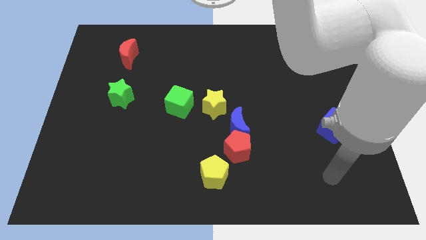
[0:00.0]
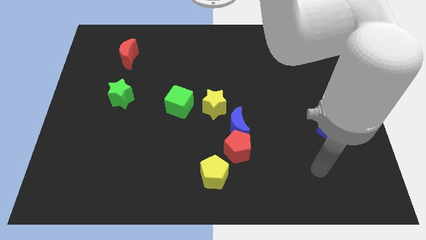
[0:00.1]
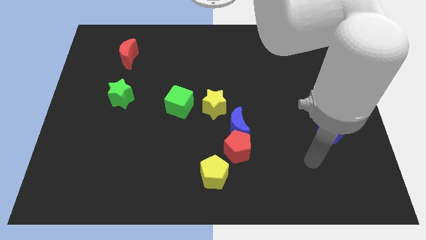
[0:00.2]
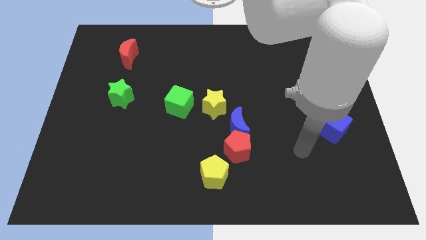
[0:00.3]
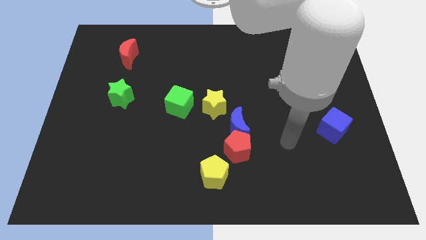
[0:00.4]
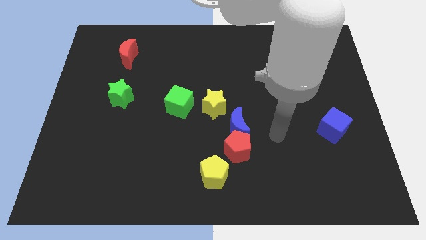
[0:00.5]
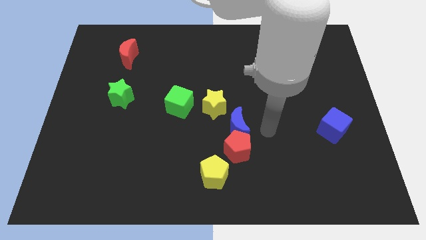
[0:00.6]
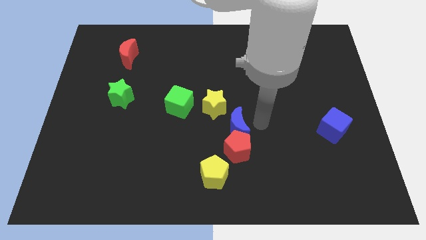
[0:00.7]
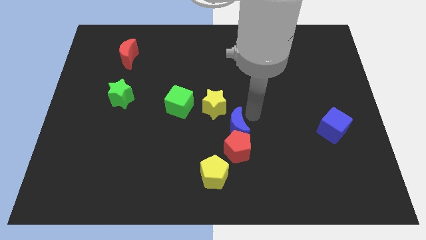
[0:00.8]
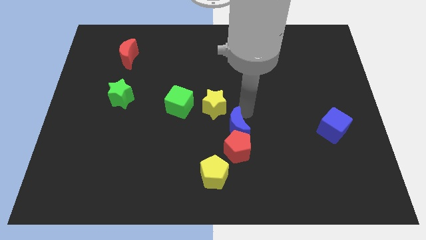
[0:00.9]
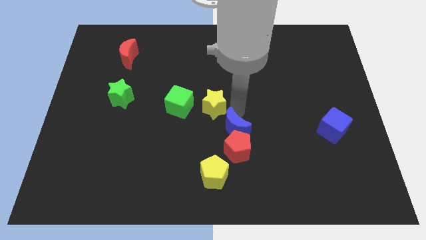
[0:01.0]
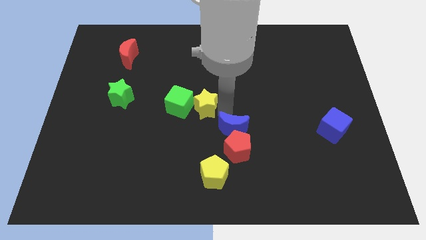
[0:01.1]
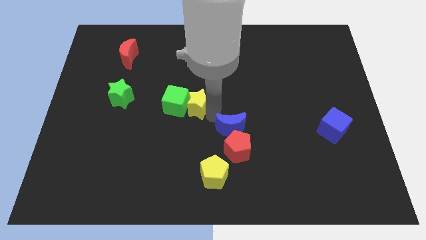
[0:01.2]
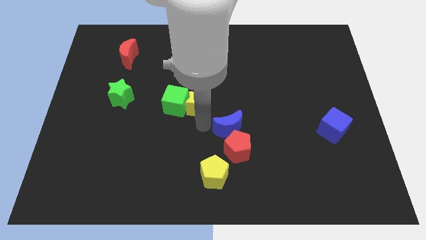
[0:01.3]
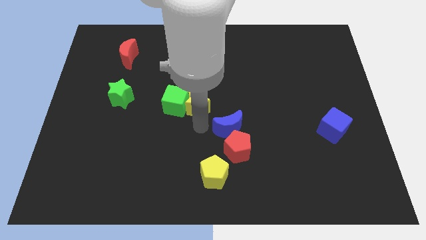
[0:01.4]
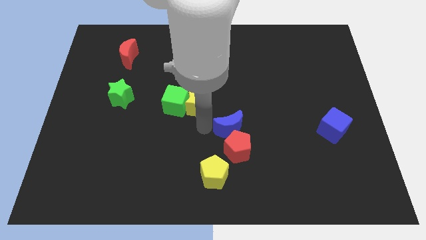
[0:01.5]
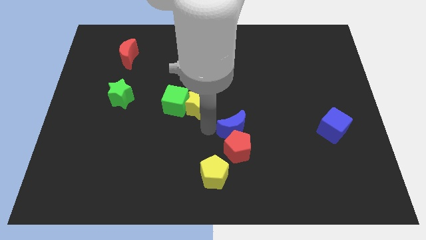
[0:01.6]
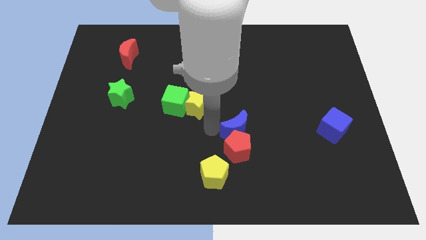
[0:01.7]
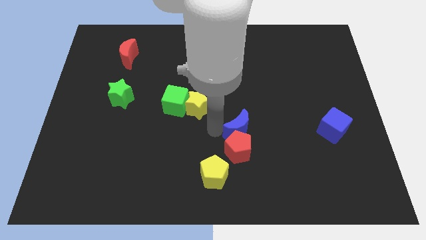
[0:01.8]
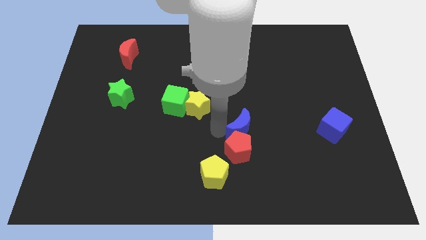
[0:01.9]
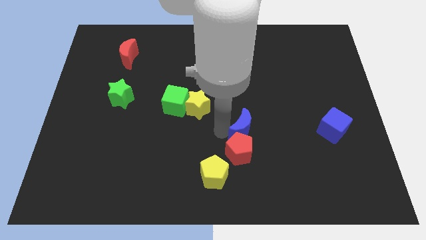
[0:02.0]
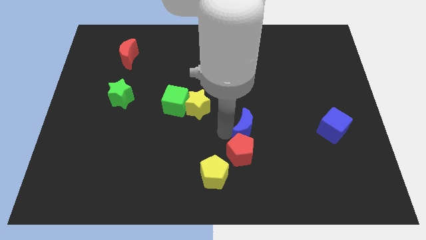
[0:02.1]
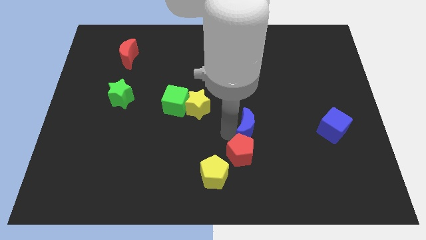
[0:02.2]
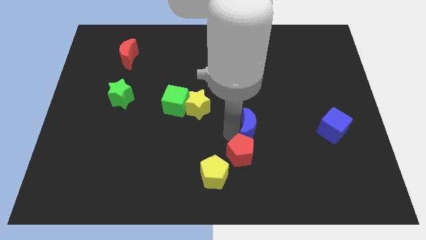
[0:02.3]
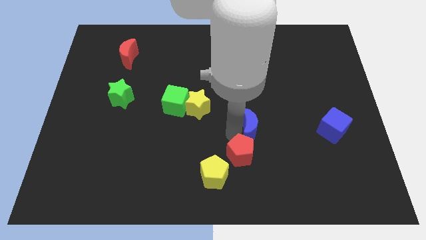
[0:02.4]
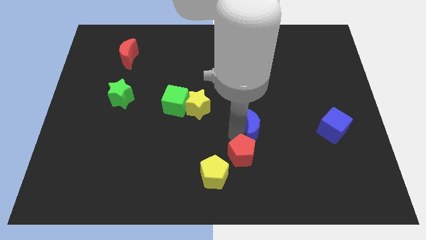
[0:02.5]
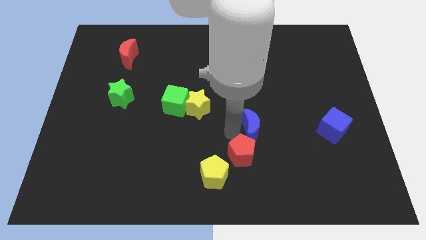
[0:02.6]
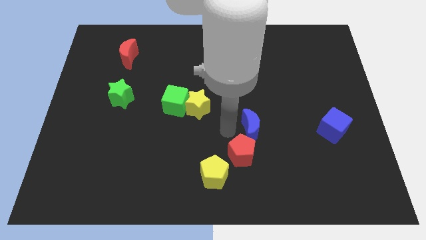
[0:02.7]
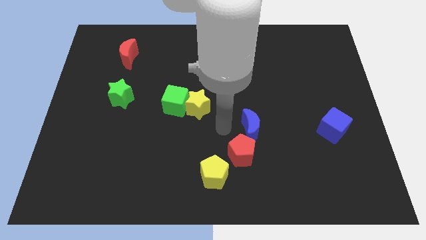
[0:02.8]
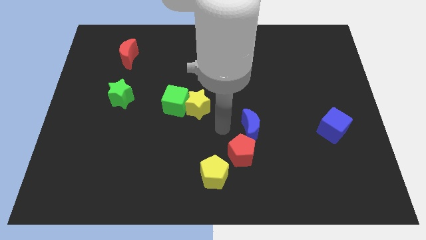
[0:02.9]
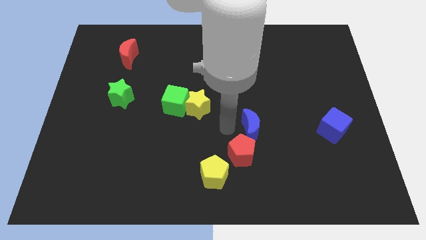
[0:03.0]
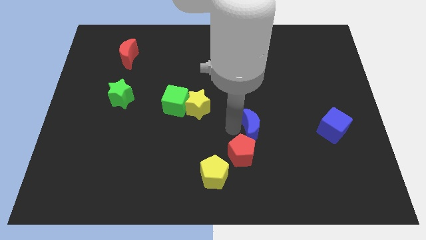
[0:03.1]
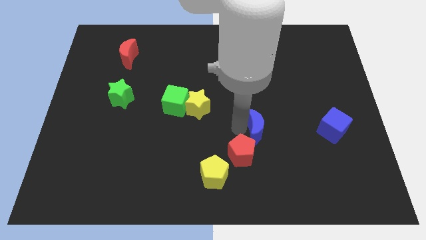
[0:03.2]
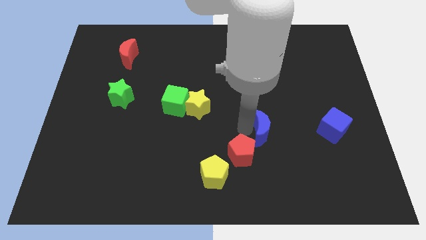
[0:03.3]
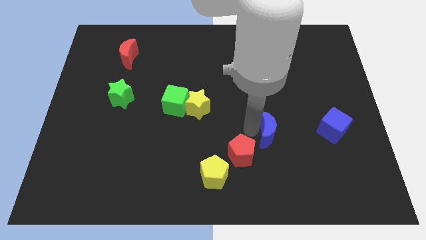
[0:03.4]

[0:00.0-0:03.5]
separate the blue moon from the red pentagon and yellow star

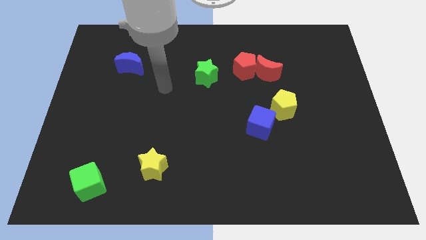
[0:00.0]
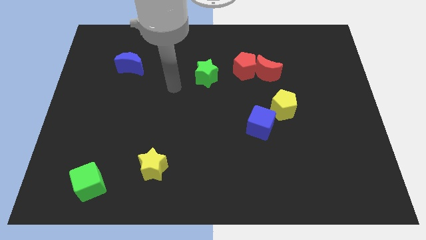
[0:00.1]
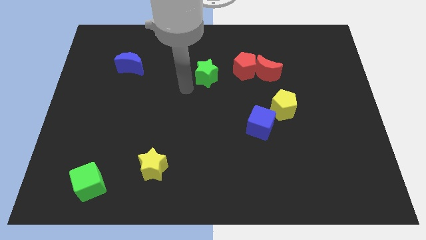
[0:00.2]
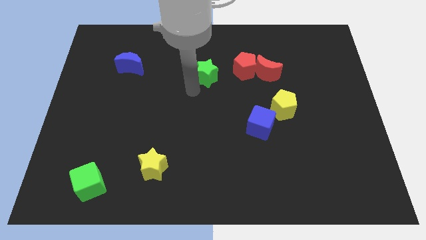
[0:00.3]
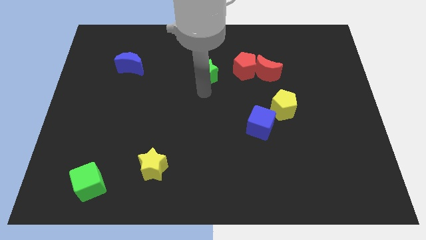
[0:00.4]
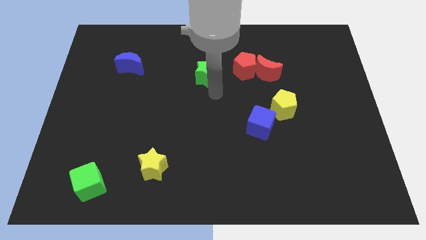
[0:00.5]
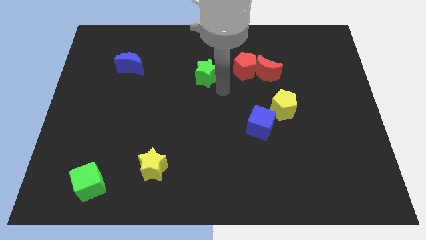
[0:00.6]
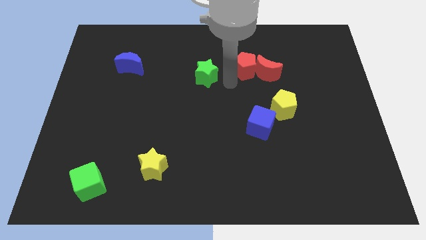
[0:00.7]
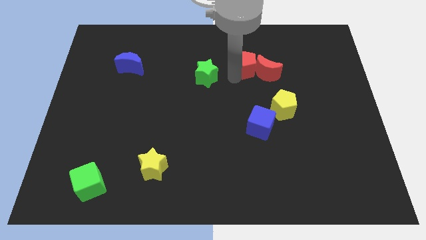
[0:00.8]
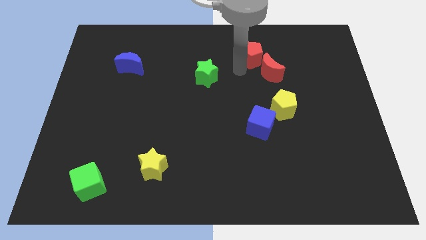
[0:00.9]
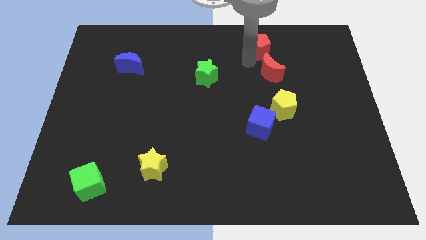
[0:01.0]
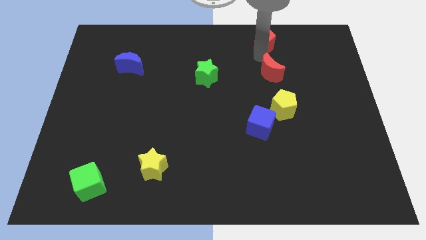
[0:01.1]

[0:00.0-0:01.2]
pull the red moon apart from the red pentagon

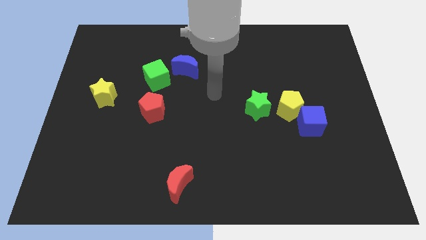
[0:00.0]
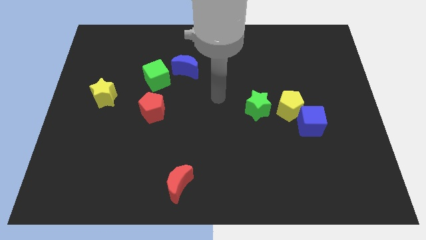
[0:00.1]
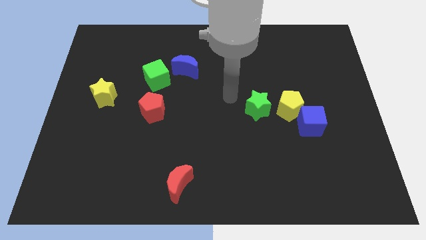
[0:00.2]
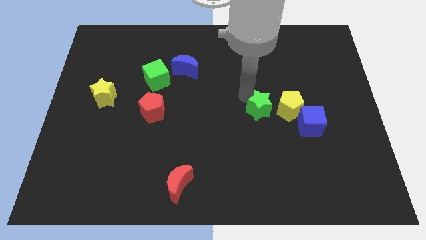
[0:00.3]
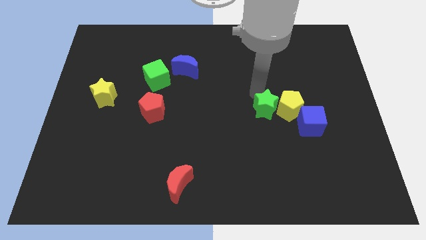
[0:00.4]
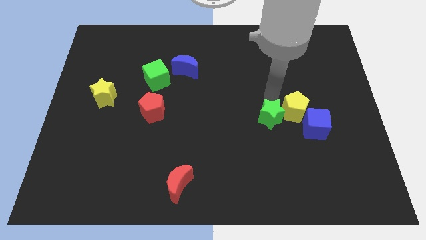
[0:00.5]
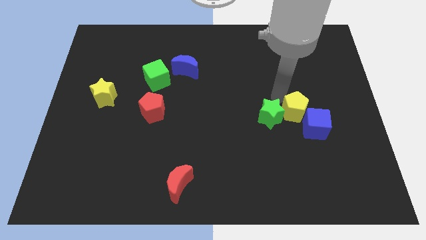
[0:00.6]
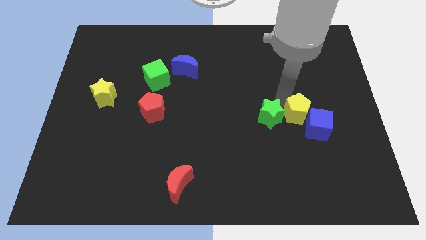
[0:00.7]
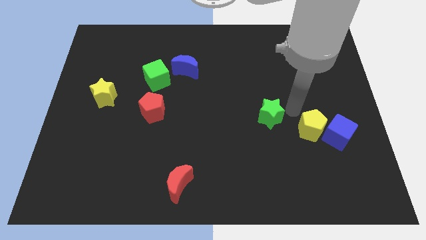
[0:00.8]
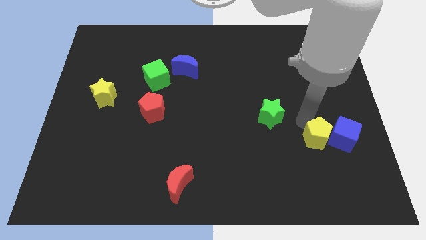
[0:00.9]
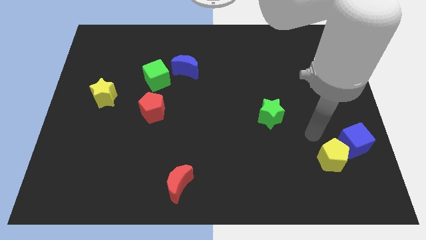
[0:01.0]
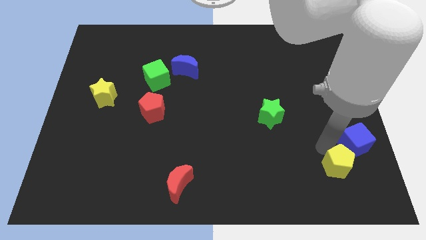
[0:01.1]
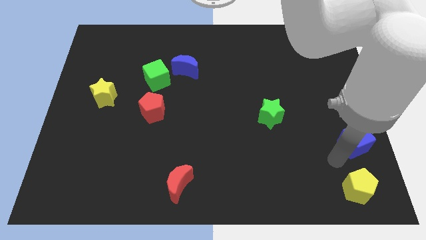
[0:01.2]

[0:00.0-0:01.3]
separate the blue cube from the yellow pentagon

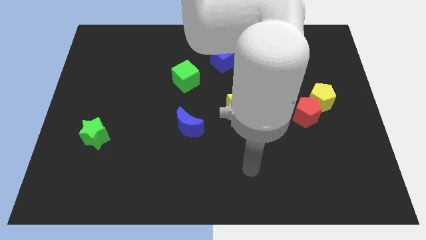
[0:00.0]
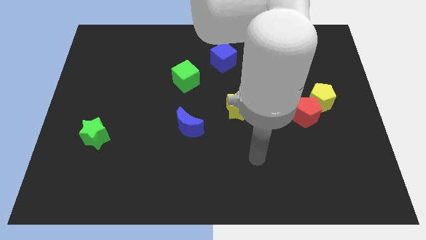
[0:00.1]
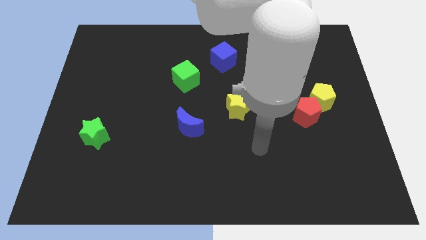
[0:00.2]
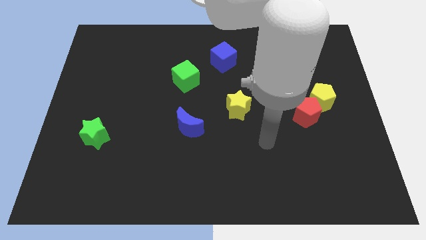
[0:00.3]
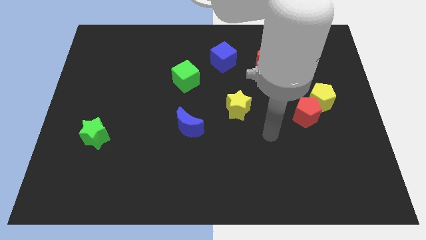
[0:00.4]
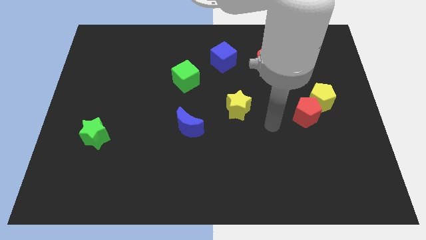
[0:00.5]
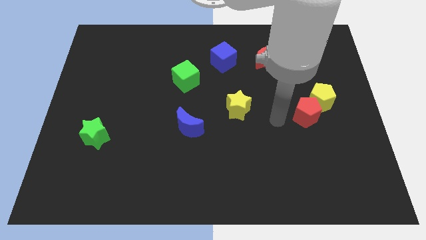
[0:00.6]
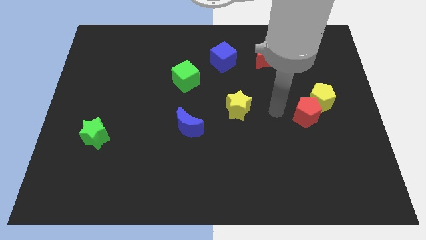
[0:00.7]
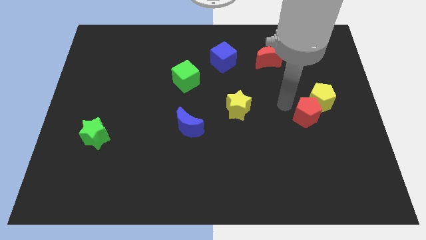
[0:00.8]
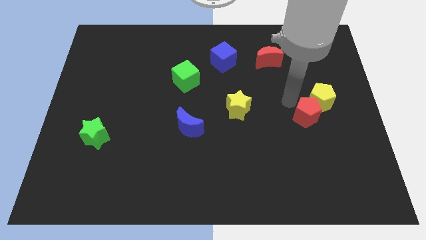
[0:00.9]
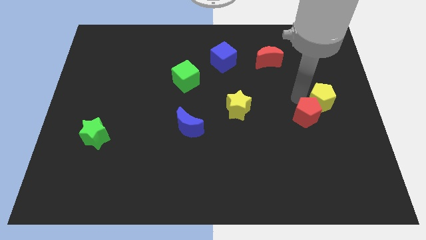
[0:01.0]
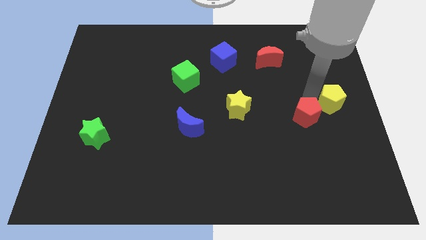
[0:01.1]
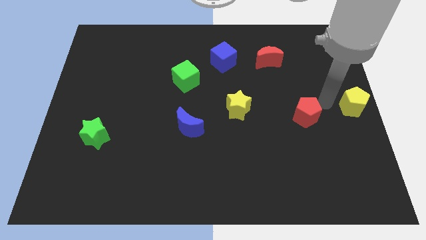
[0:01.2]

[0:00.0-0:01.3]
pull the red pentagon apart from the yellow pentagon

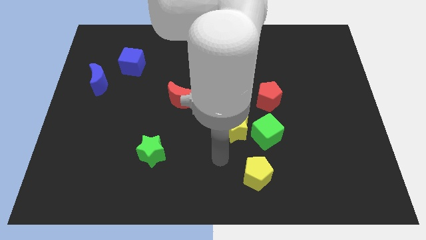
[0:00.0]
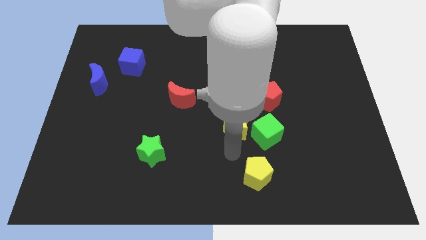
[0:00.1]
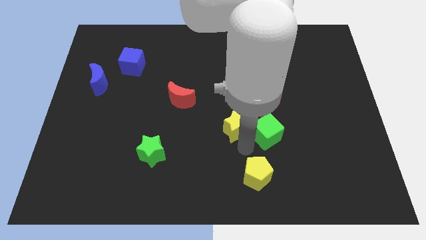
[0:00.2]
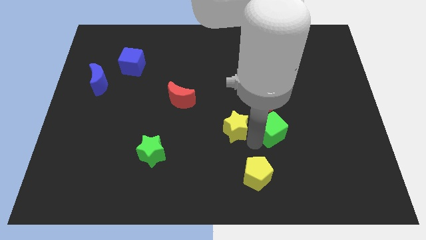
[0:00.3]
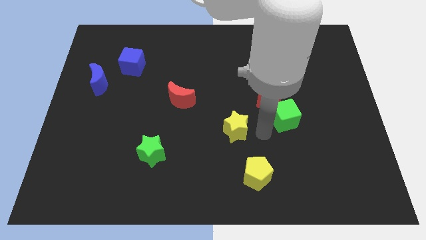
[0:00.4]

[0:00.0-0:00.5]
separate the yellow star from the green cube

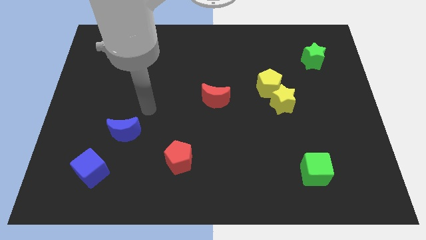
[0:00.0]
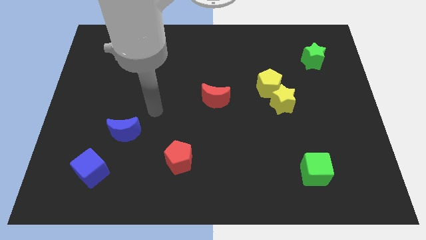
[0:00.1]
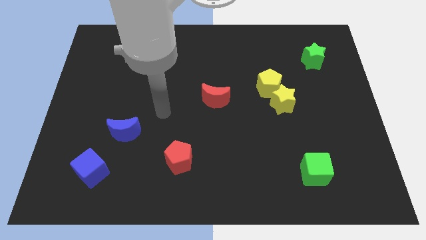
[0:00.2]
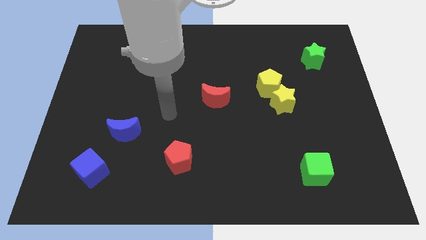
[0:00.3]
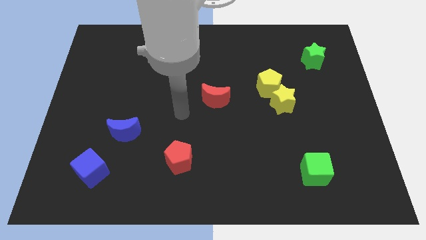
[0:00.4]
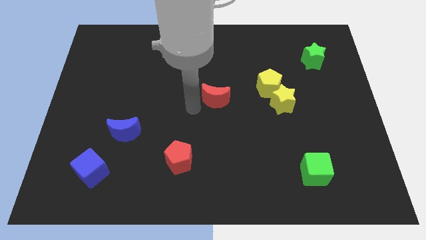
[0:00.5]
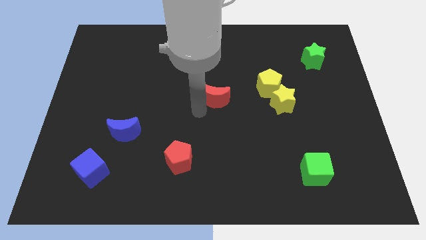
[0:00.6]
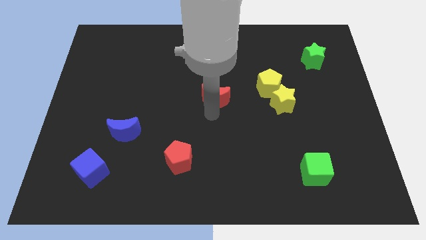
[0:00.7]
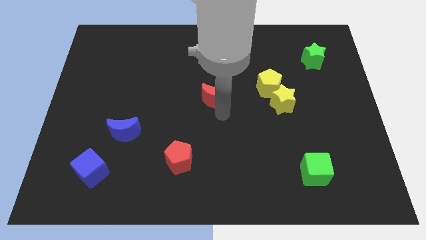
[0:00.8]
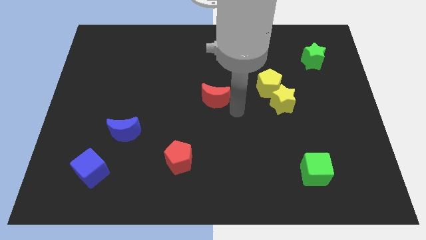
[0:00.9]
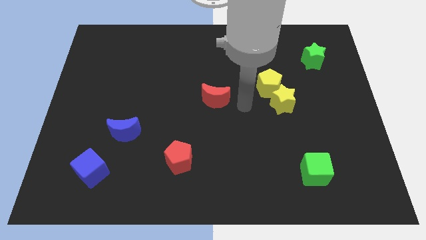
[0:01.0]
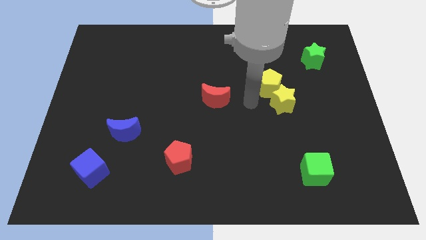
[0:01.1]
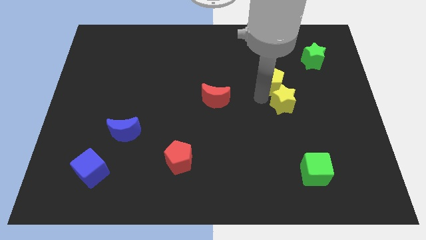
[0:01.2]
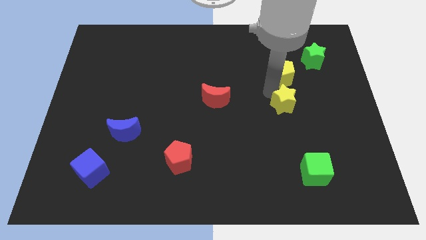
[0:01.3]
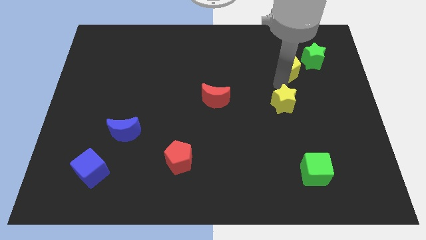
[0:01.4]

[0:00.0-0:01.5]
pull the yellow star apart from the yellow pentagon
